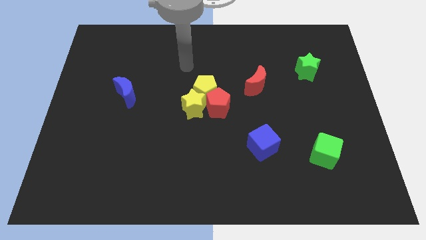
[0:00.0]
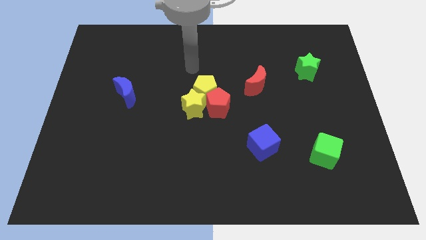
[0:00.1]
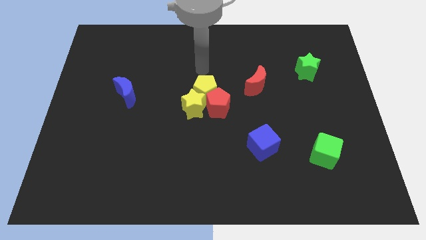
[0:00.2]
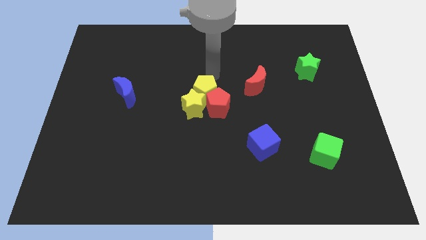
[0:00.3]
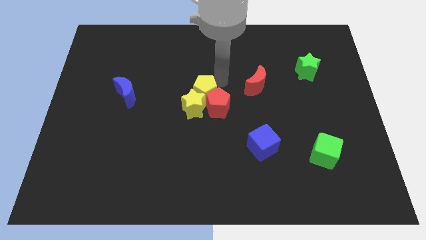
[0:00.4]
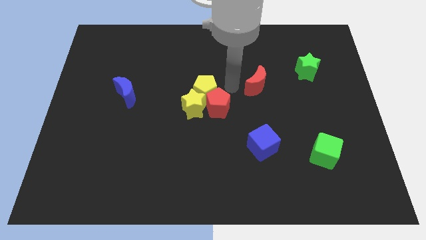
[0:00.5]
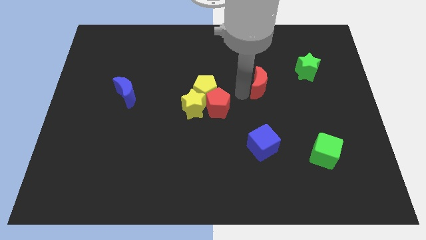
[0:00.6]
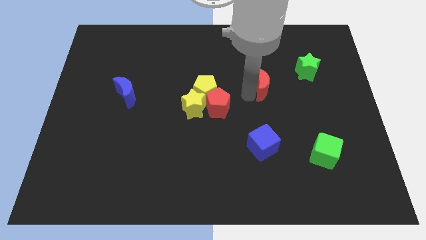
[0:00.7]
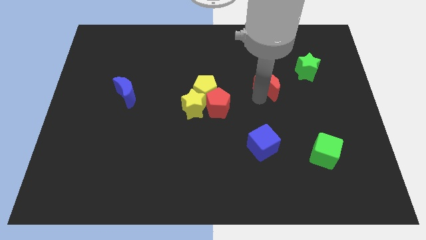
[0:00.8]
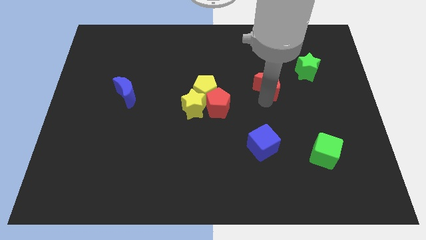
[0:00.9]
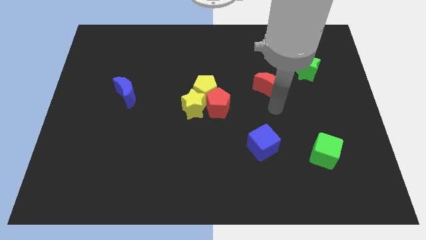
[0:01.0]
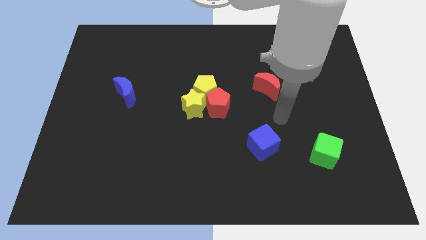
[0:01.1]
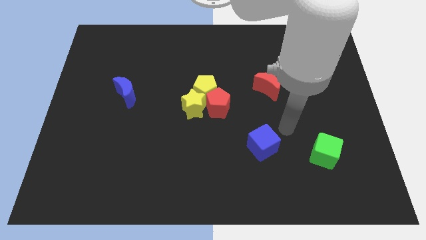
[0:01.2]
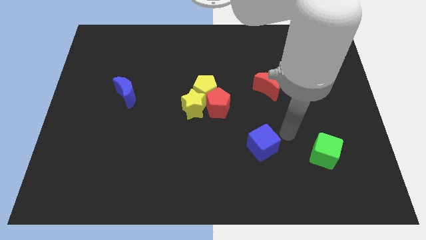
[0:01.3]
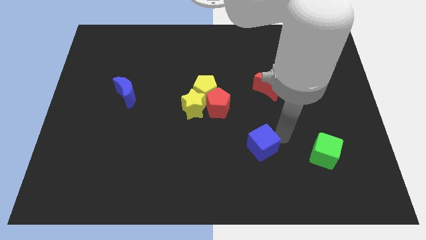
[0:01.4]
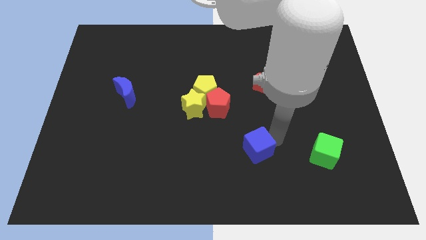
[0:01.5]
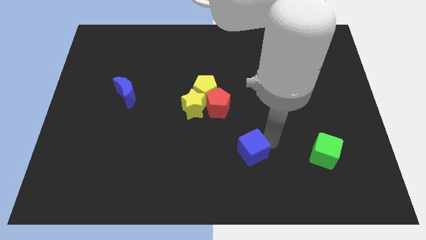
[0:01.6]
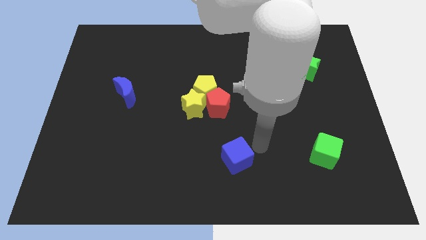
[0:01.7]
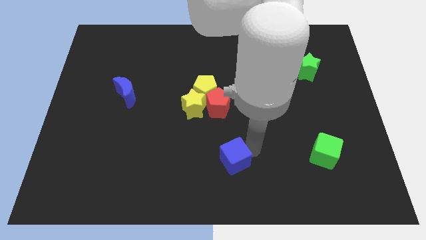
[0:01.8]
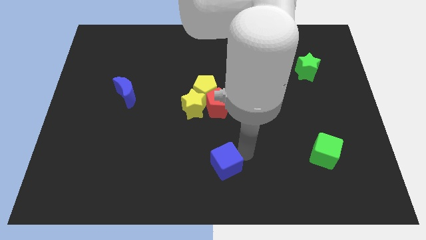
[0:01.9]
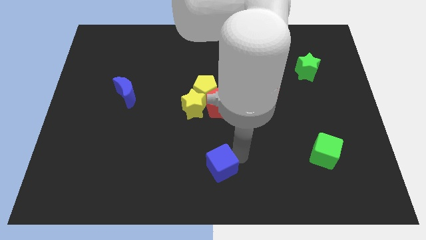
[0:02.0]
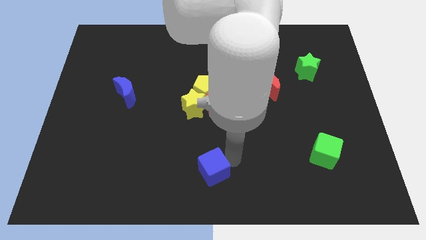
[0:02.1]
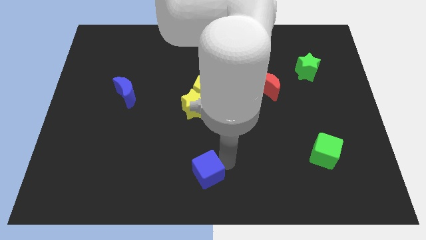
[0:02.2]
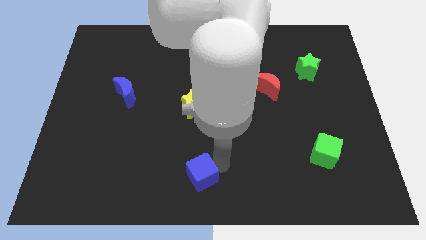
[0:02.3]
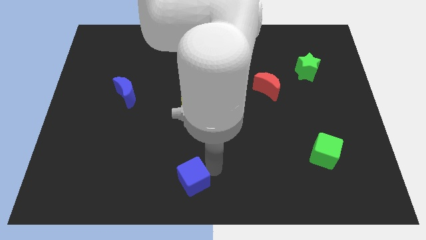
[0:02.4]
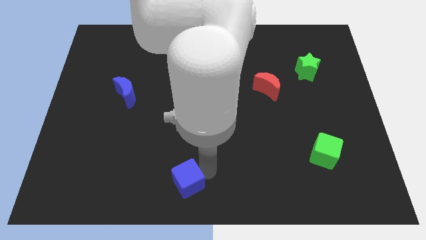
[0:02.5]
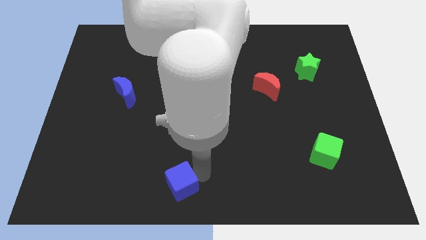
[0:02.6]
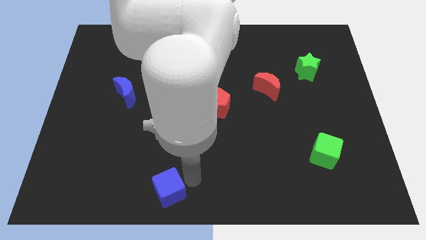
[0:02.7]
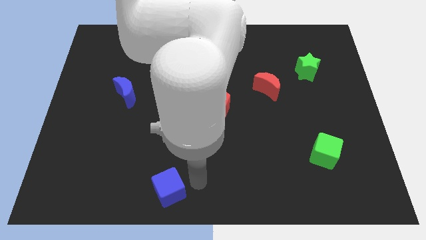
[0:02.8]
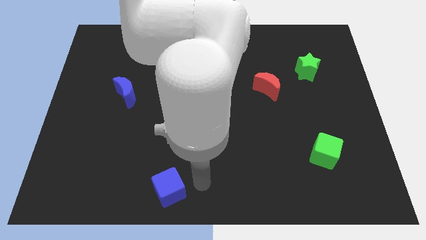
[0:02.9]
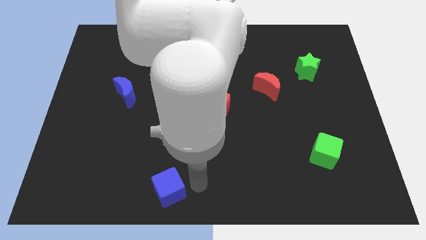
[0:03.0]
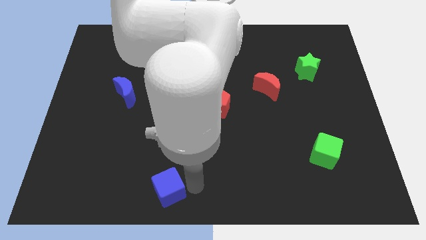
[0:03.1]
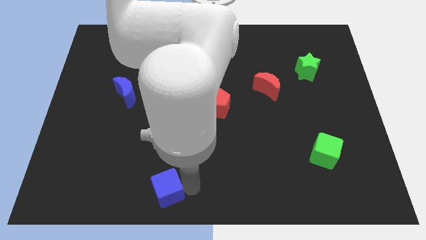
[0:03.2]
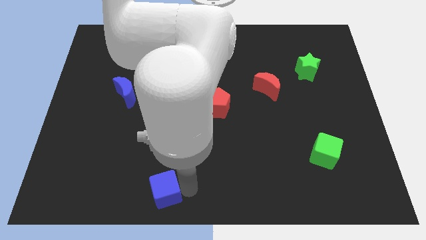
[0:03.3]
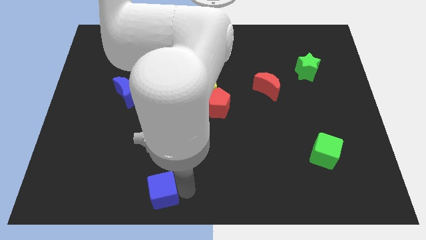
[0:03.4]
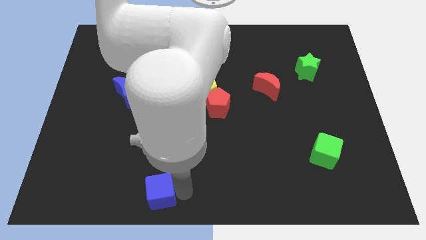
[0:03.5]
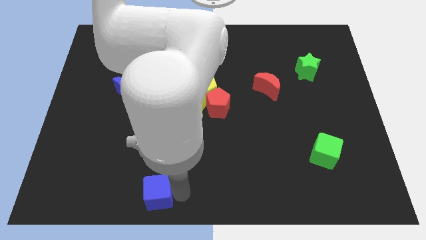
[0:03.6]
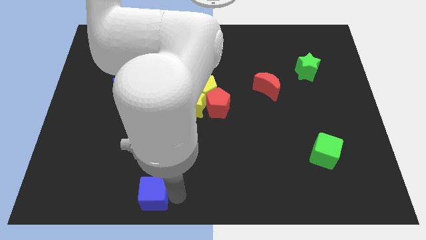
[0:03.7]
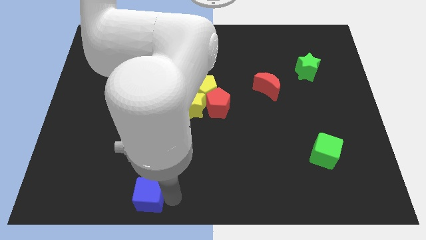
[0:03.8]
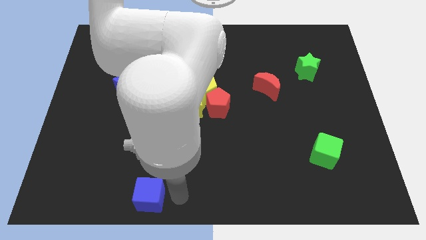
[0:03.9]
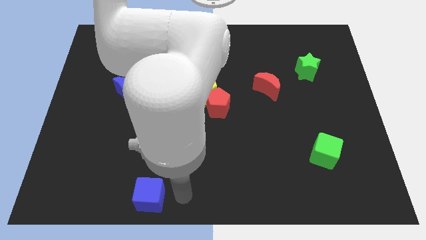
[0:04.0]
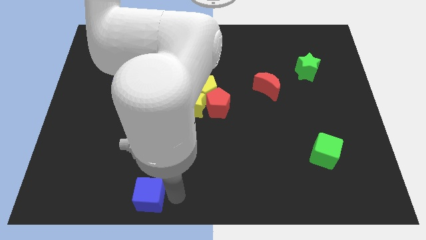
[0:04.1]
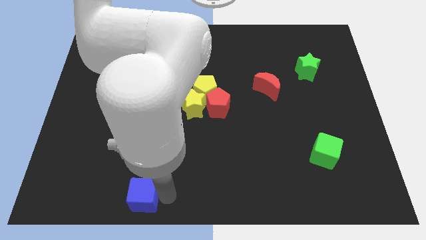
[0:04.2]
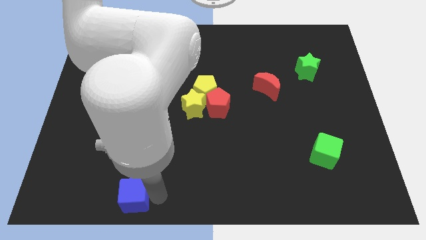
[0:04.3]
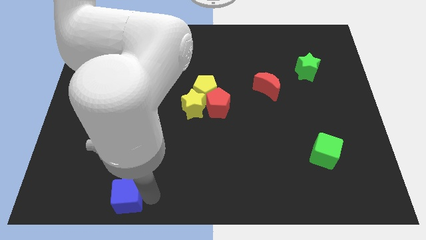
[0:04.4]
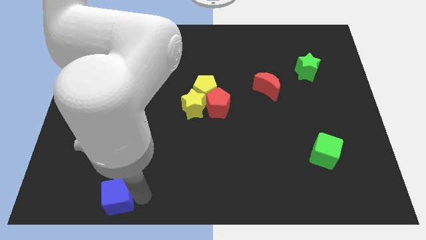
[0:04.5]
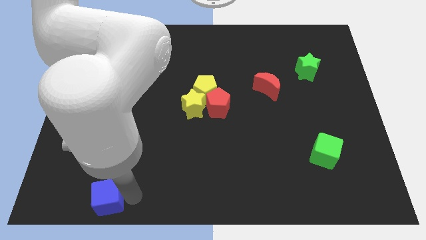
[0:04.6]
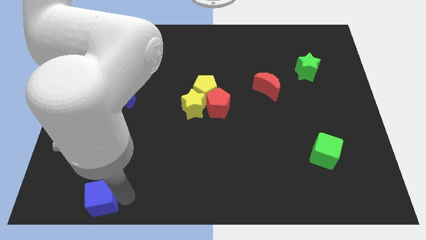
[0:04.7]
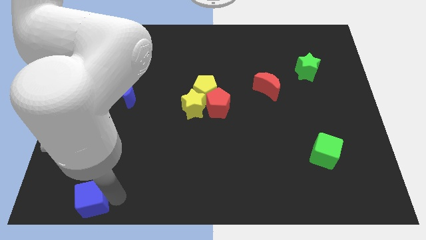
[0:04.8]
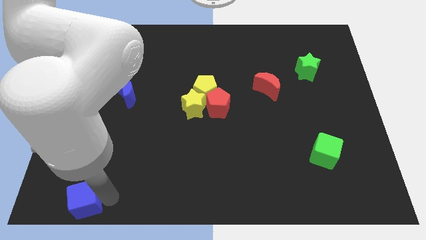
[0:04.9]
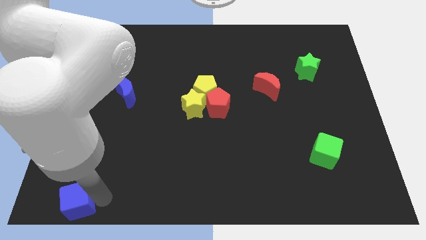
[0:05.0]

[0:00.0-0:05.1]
put the blue cube to the lower left corner

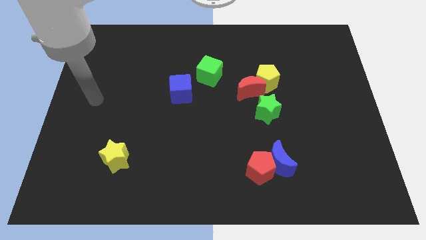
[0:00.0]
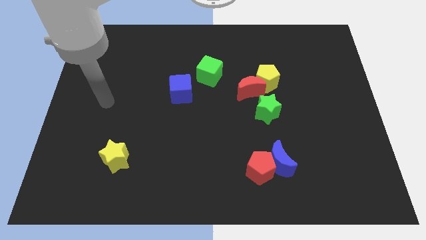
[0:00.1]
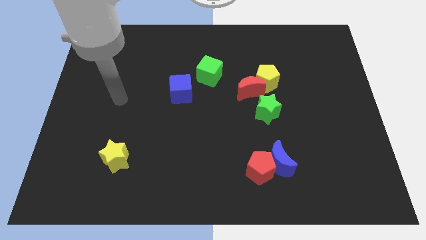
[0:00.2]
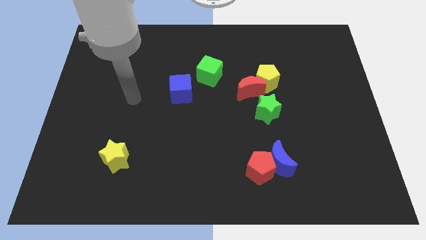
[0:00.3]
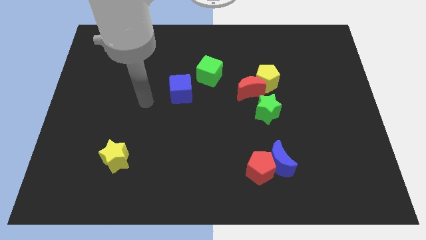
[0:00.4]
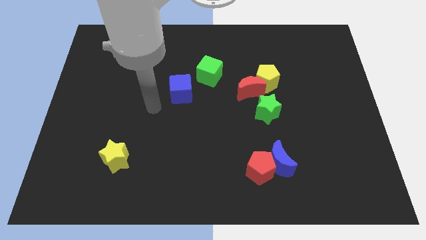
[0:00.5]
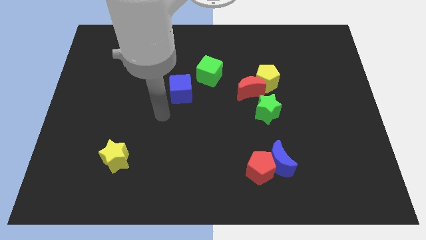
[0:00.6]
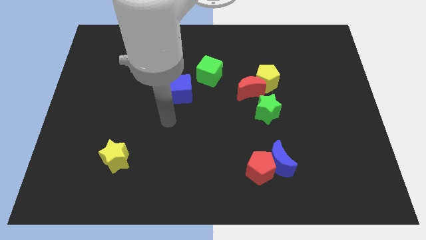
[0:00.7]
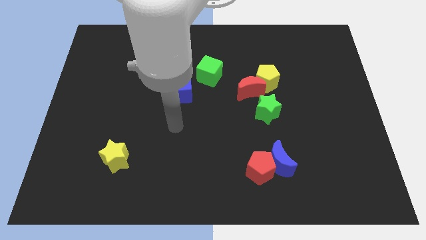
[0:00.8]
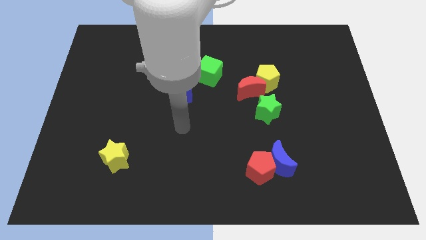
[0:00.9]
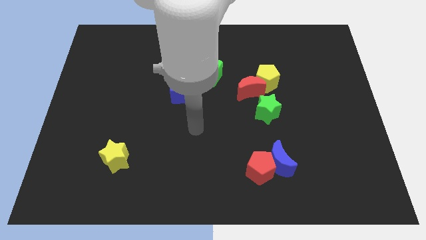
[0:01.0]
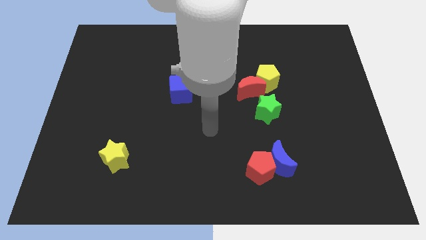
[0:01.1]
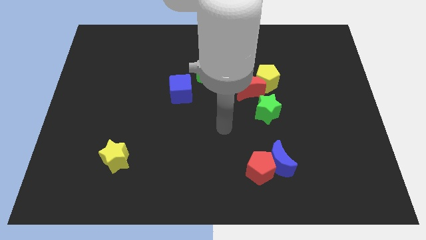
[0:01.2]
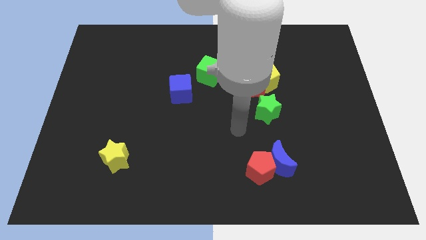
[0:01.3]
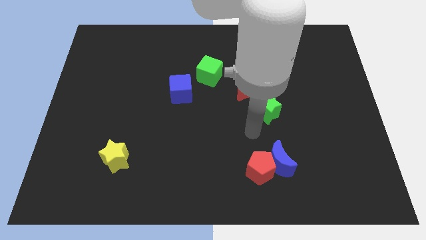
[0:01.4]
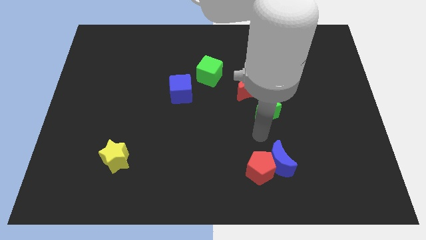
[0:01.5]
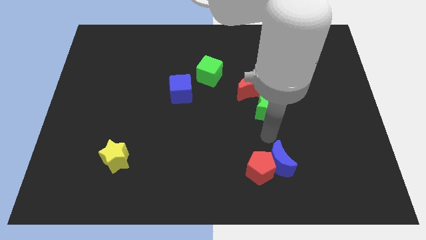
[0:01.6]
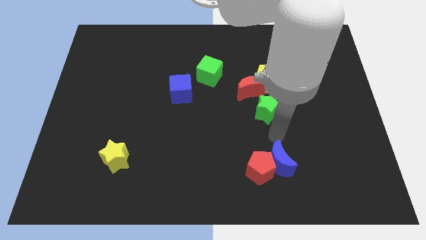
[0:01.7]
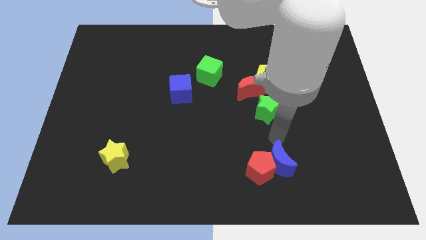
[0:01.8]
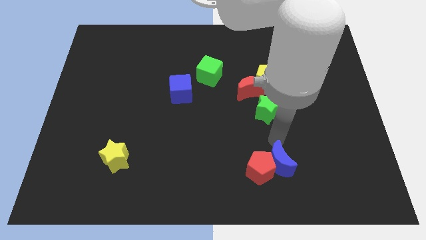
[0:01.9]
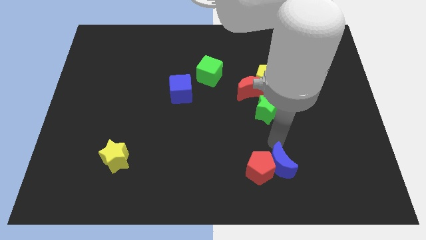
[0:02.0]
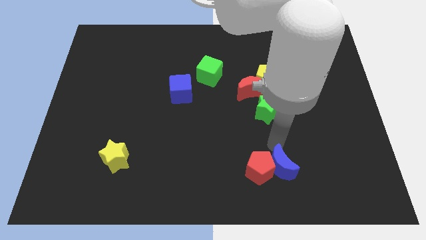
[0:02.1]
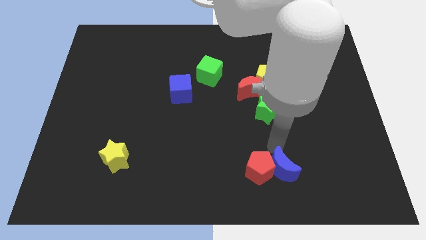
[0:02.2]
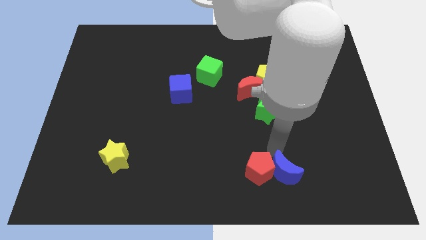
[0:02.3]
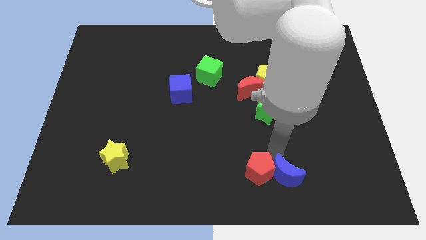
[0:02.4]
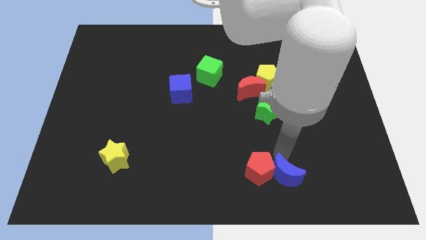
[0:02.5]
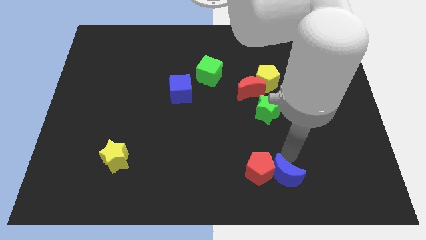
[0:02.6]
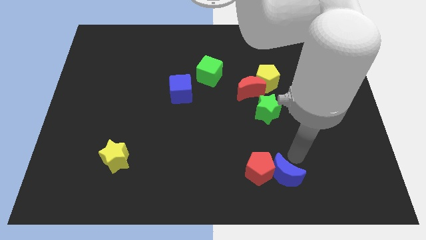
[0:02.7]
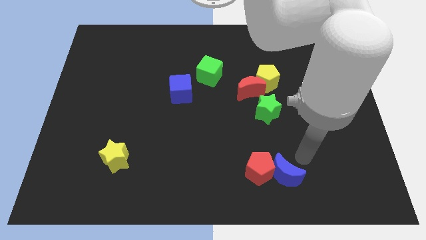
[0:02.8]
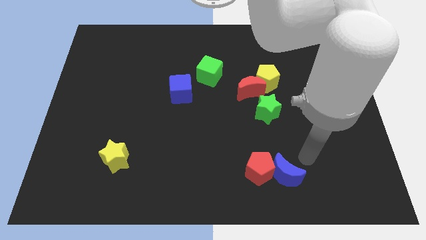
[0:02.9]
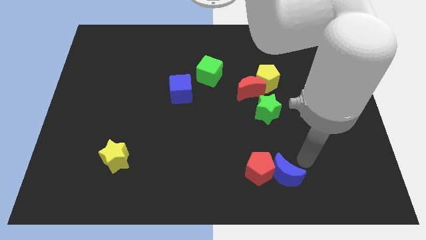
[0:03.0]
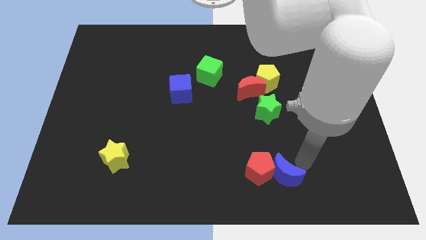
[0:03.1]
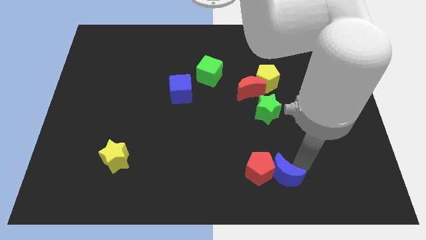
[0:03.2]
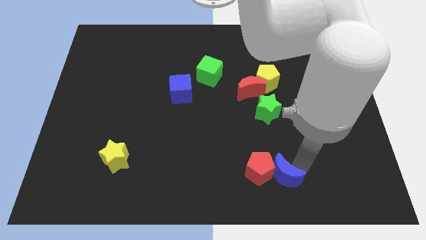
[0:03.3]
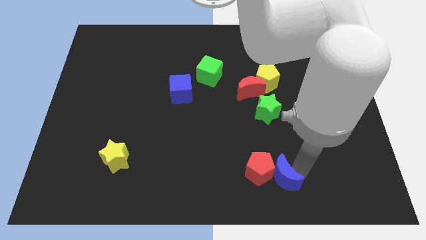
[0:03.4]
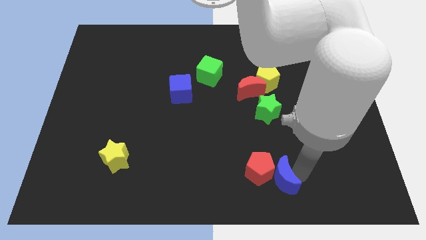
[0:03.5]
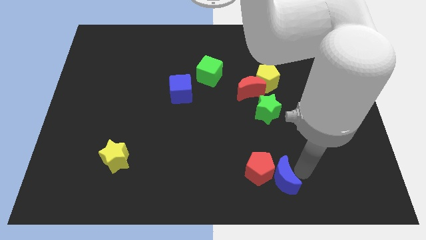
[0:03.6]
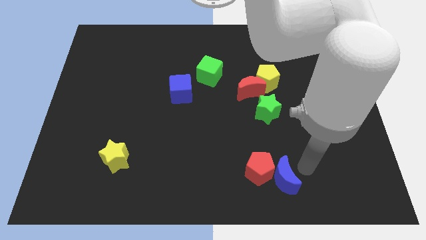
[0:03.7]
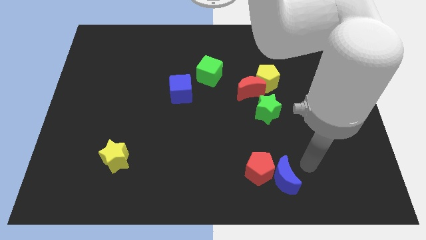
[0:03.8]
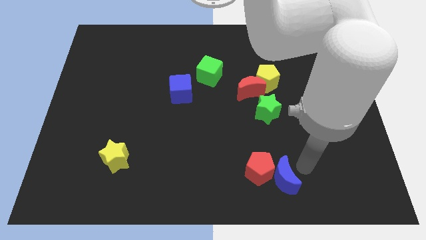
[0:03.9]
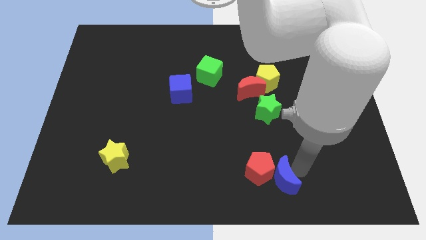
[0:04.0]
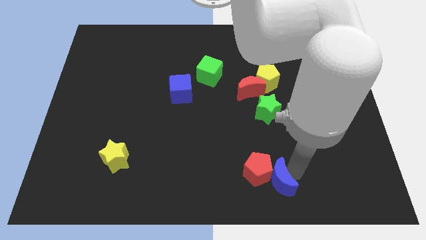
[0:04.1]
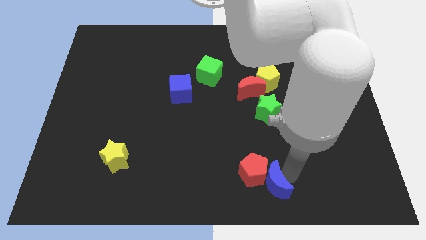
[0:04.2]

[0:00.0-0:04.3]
move the blue moon to the bottom
